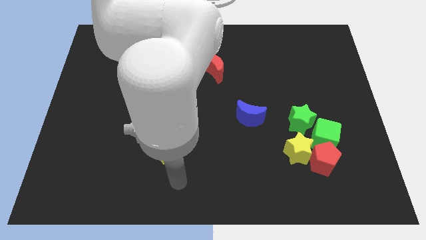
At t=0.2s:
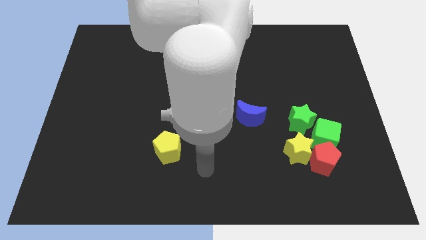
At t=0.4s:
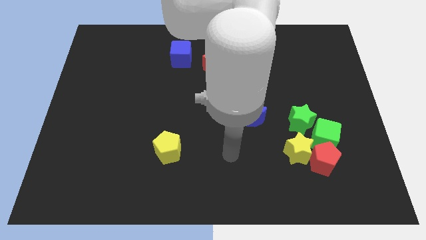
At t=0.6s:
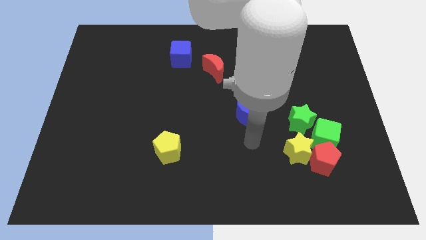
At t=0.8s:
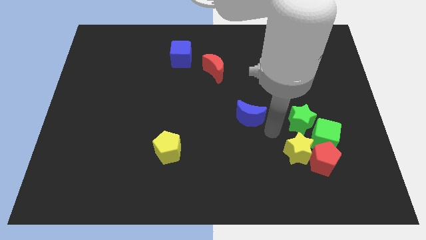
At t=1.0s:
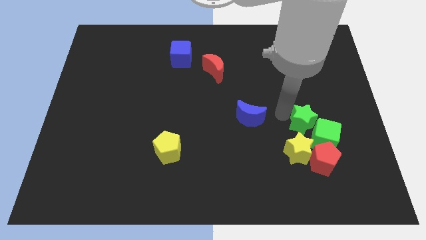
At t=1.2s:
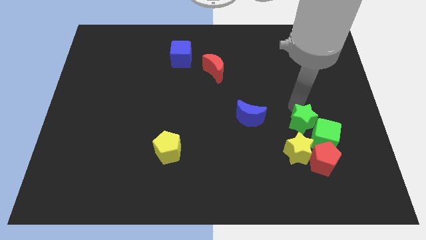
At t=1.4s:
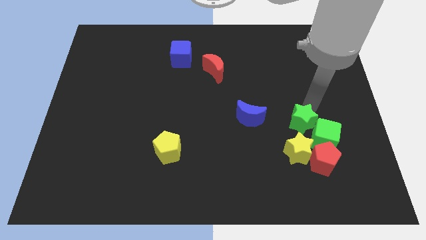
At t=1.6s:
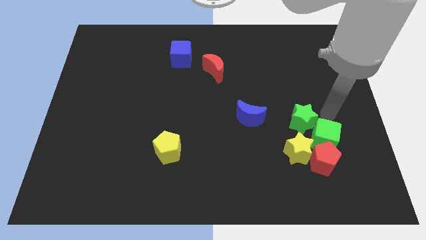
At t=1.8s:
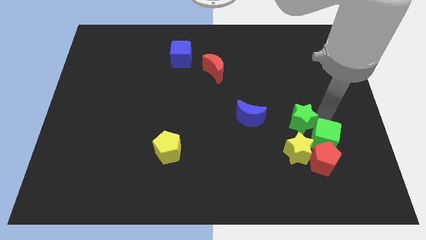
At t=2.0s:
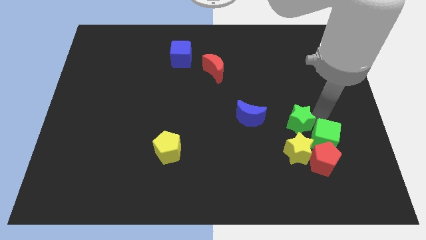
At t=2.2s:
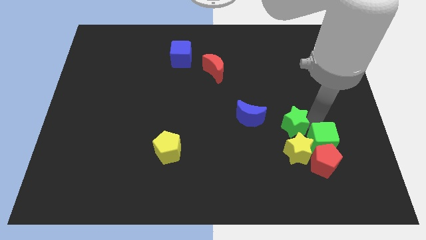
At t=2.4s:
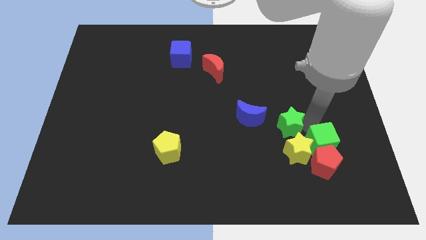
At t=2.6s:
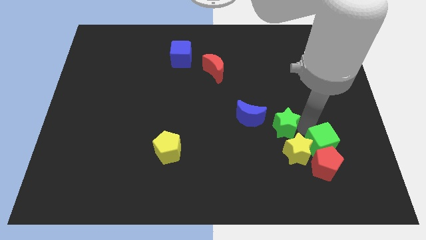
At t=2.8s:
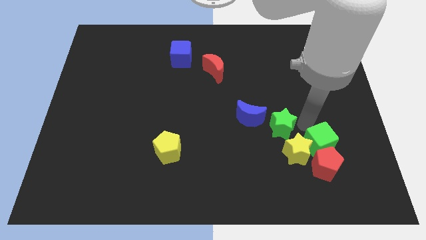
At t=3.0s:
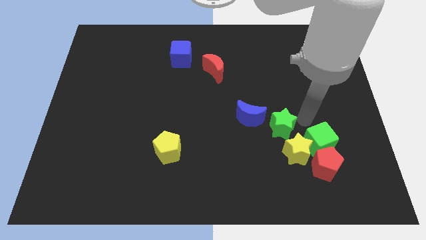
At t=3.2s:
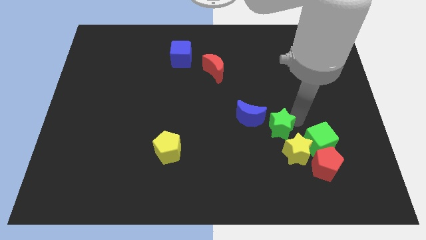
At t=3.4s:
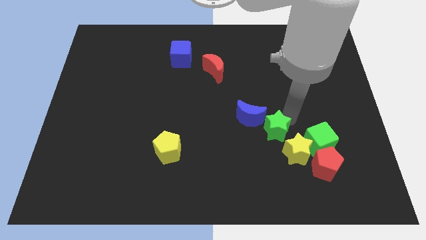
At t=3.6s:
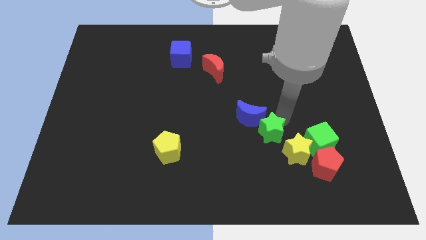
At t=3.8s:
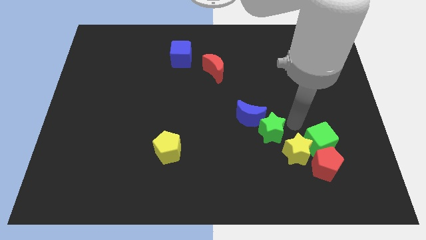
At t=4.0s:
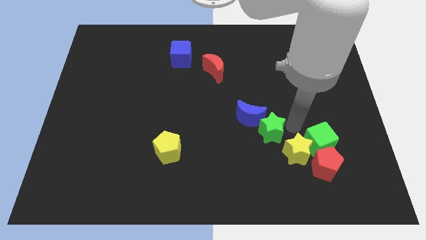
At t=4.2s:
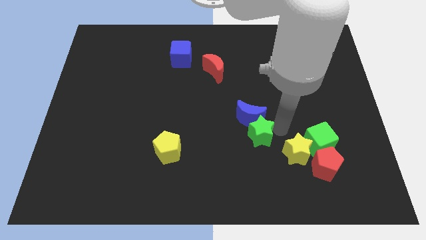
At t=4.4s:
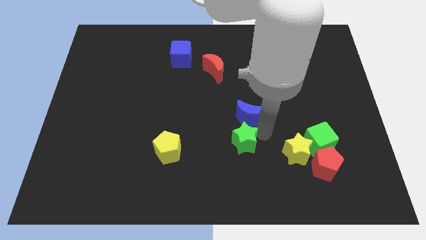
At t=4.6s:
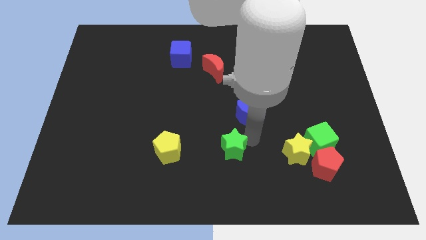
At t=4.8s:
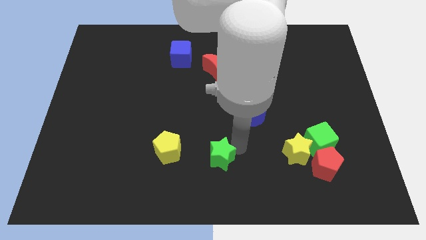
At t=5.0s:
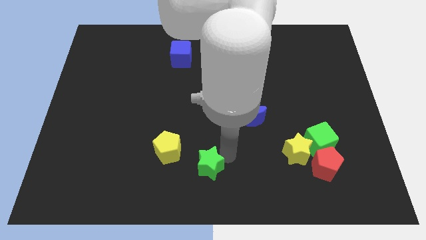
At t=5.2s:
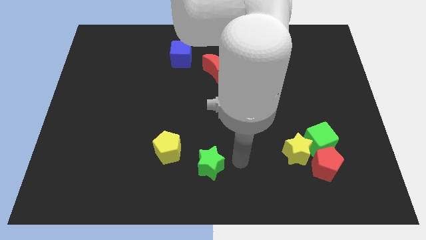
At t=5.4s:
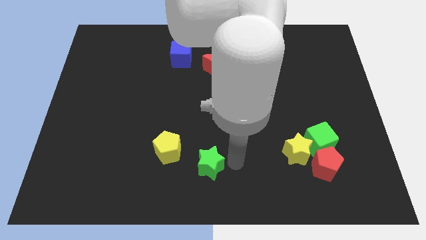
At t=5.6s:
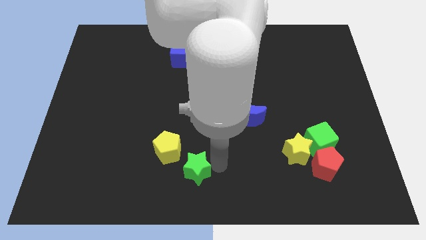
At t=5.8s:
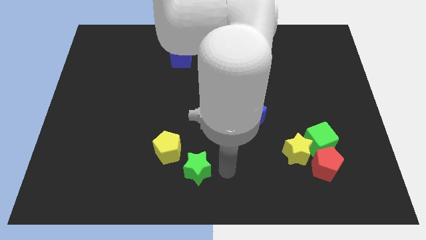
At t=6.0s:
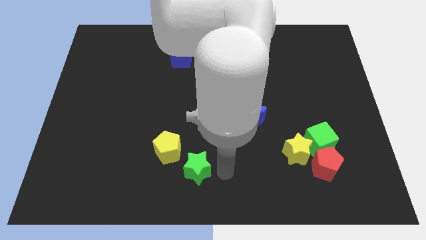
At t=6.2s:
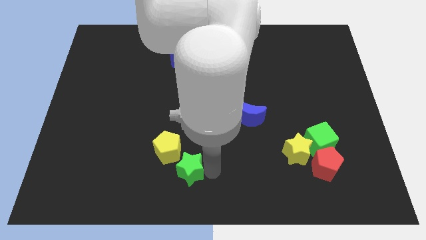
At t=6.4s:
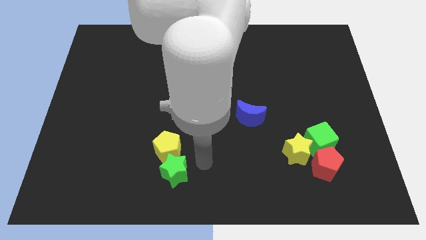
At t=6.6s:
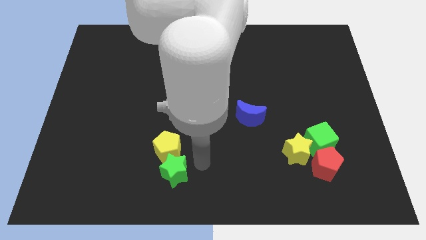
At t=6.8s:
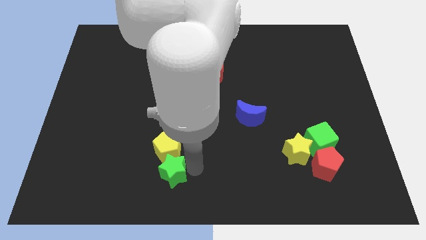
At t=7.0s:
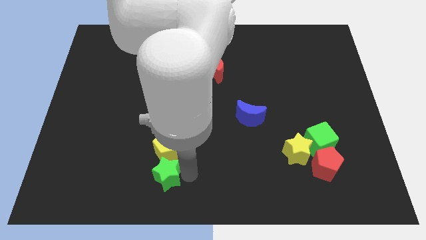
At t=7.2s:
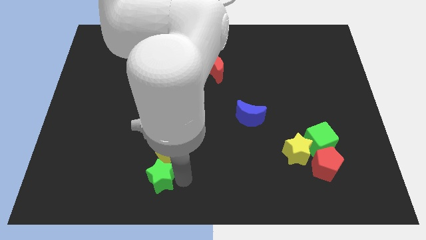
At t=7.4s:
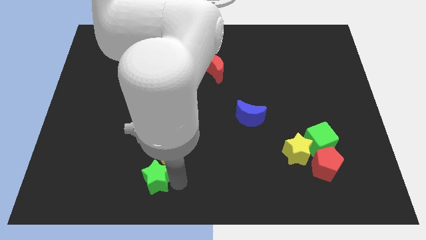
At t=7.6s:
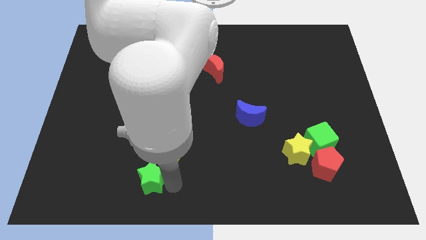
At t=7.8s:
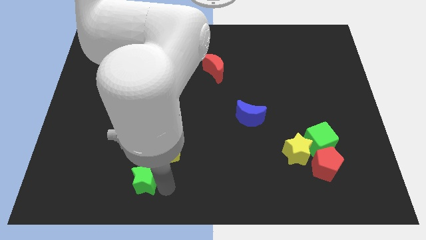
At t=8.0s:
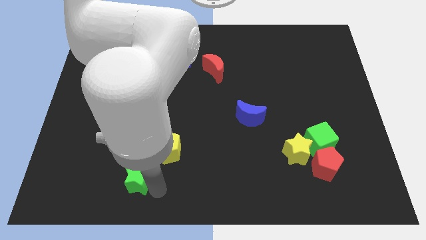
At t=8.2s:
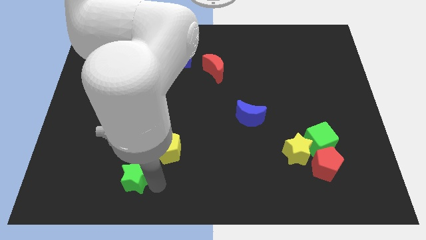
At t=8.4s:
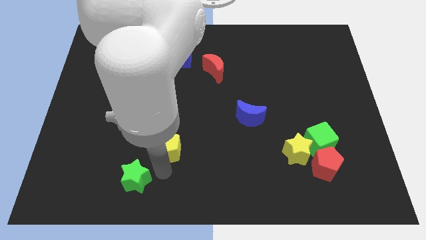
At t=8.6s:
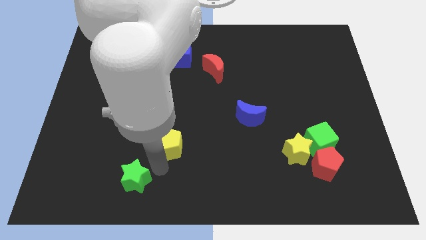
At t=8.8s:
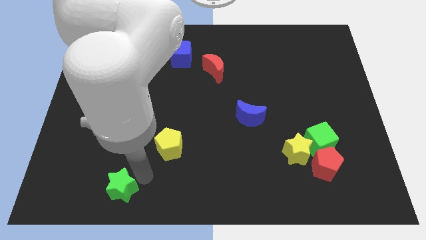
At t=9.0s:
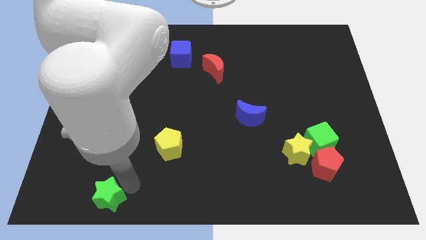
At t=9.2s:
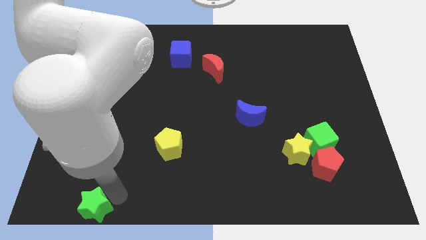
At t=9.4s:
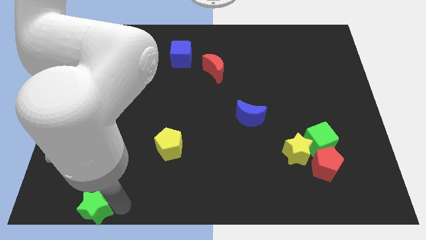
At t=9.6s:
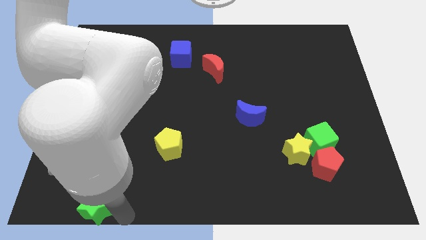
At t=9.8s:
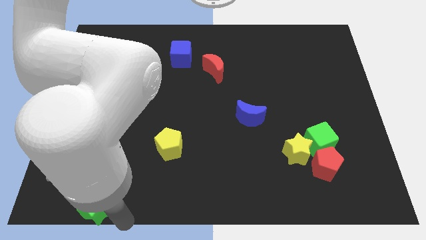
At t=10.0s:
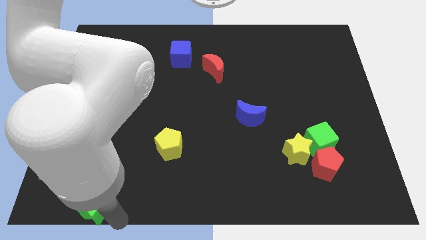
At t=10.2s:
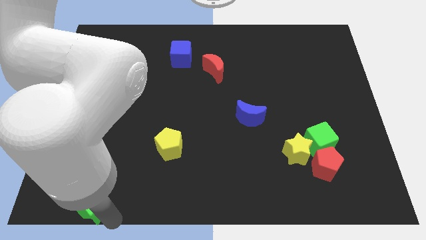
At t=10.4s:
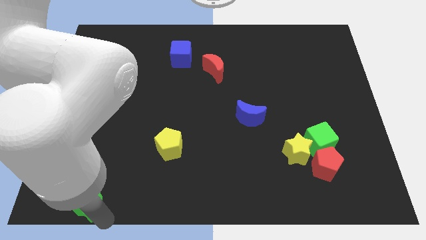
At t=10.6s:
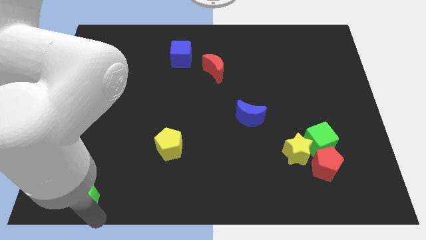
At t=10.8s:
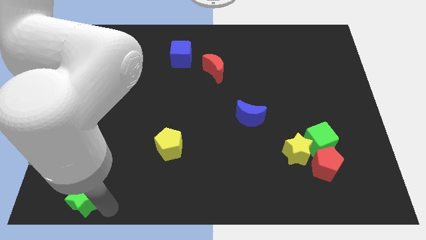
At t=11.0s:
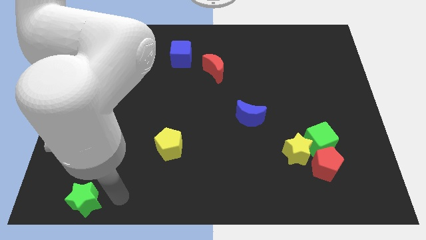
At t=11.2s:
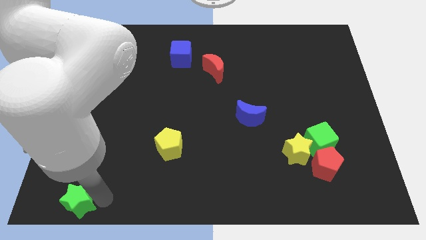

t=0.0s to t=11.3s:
push the green star to the lower left corner
